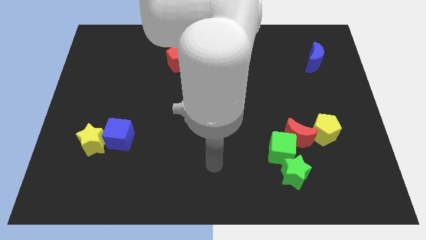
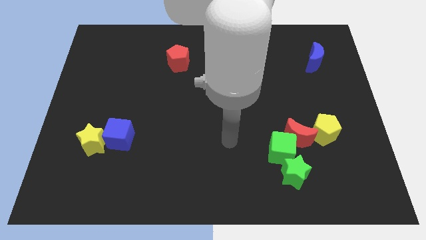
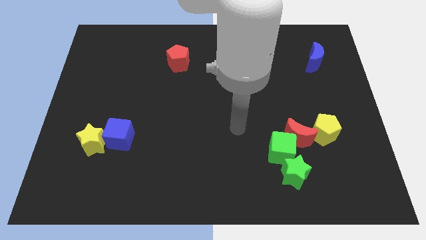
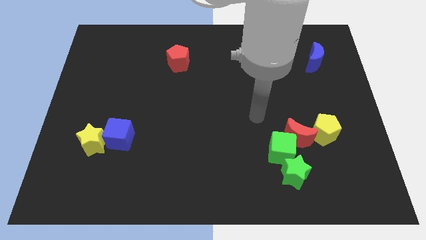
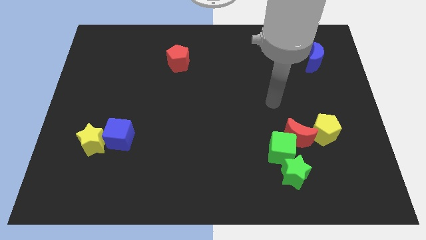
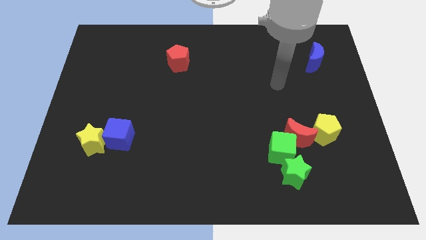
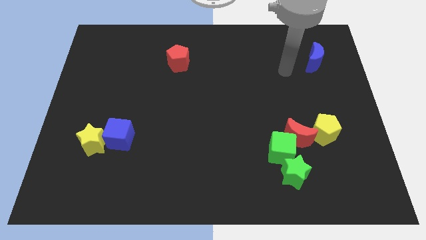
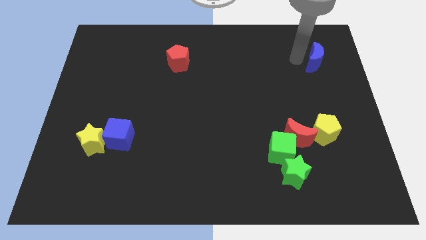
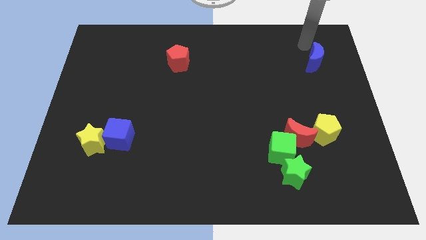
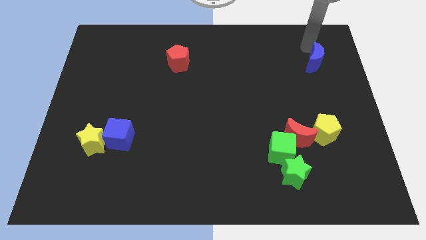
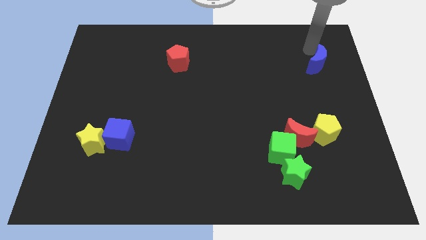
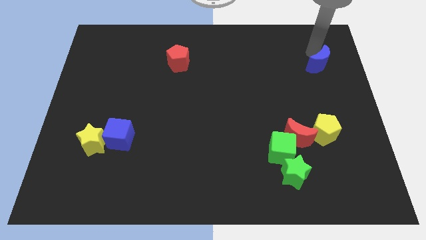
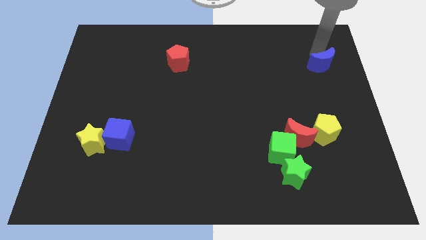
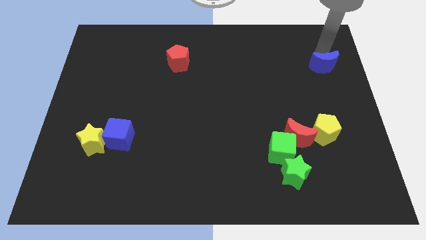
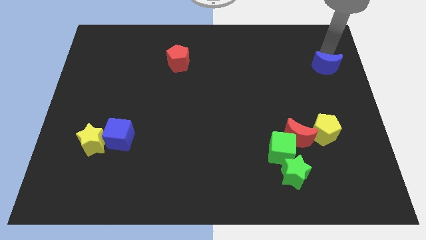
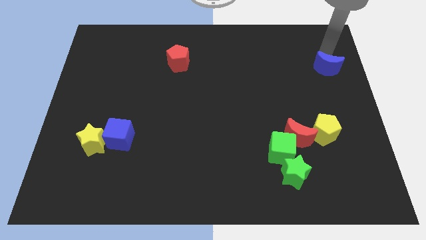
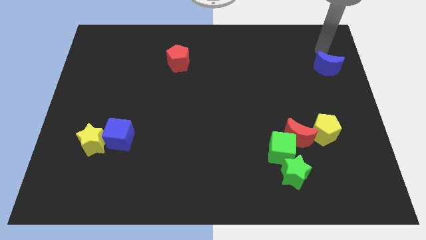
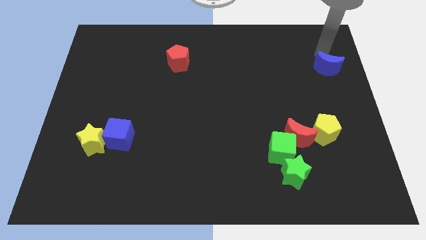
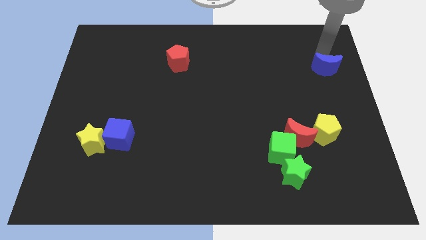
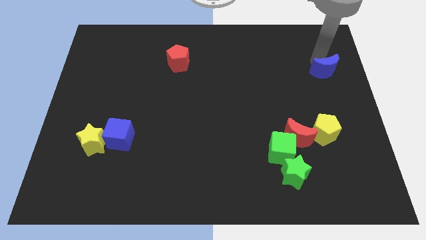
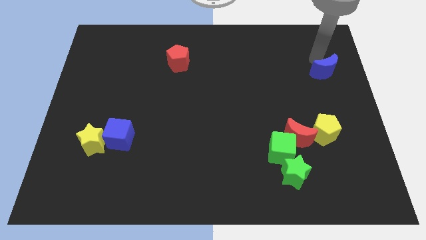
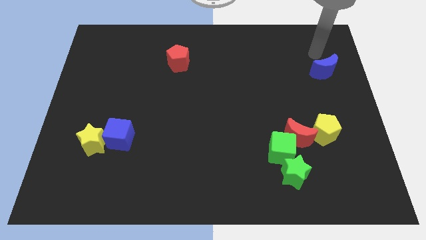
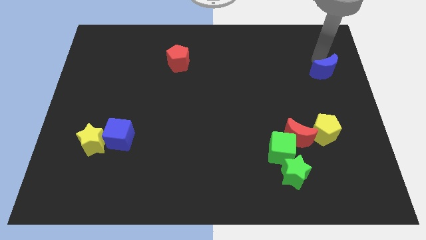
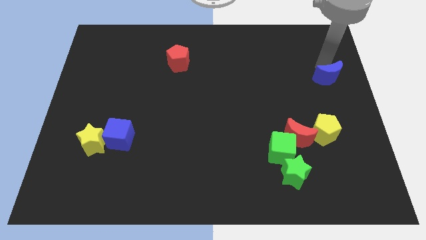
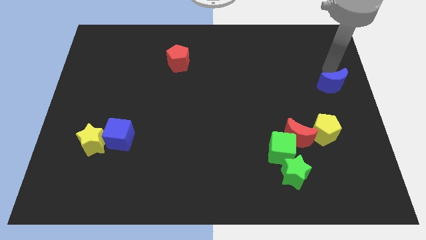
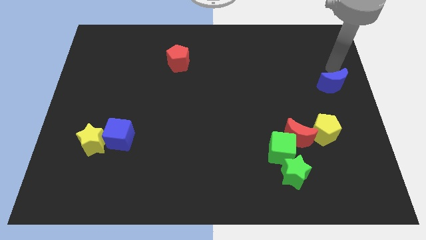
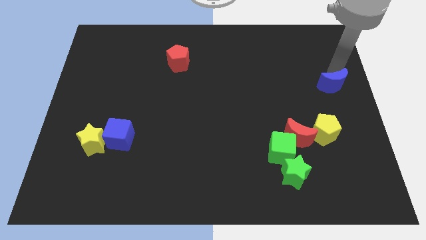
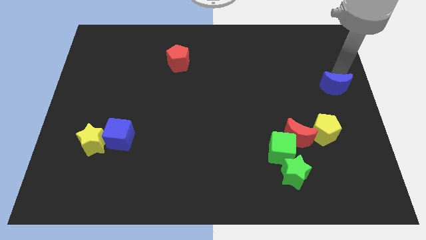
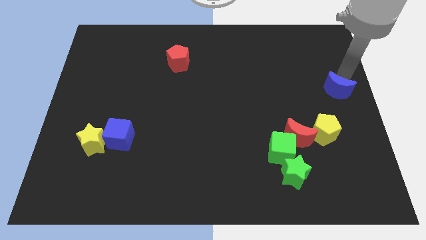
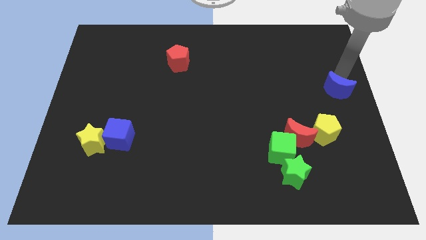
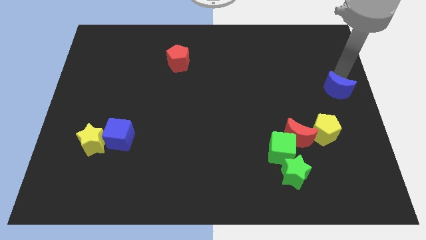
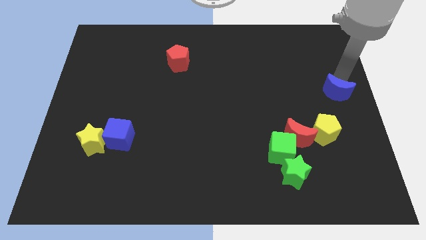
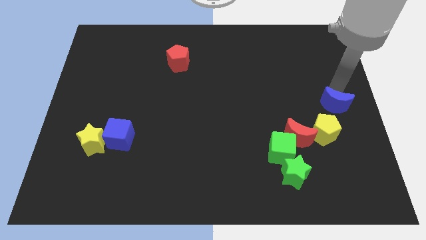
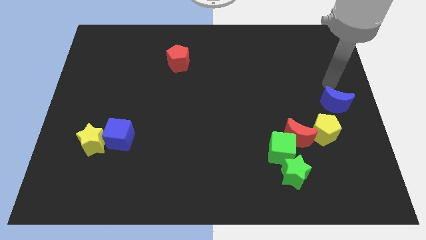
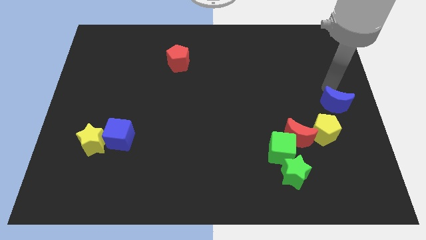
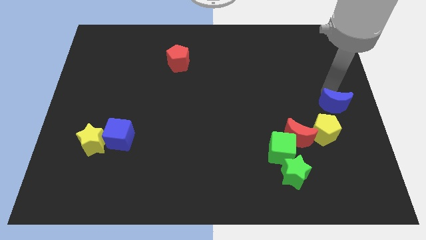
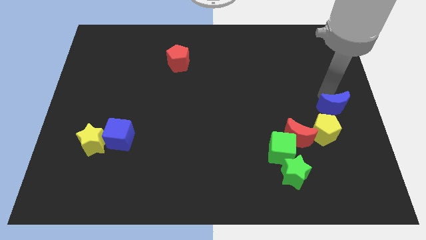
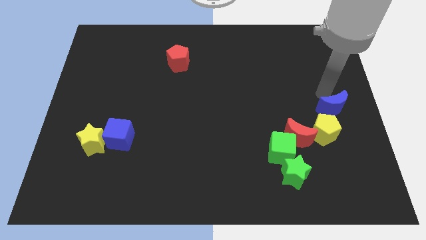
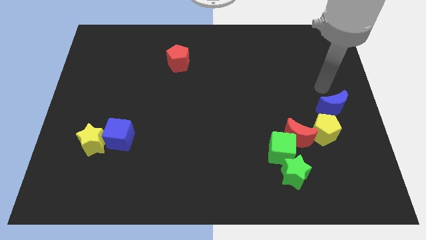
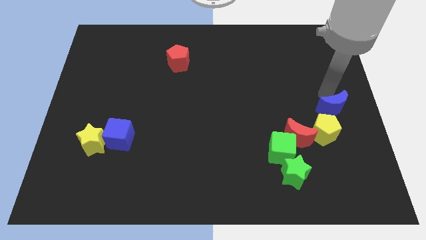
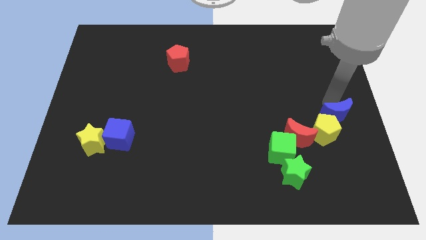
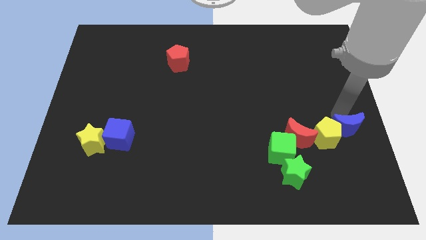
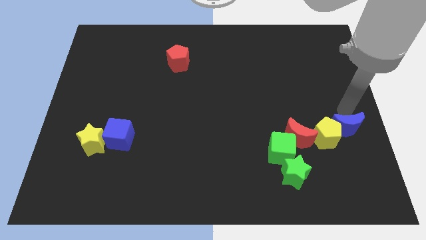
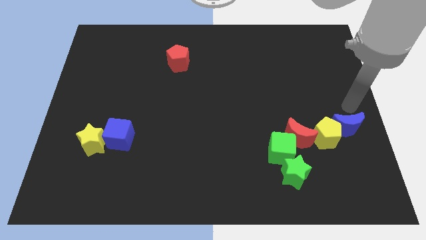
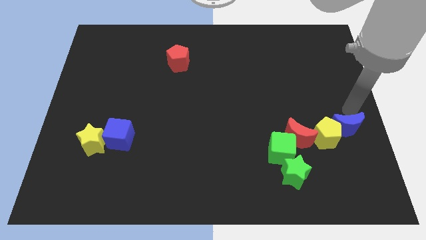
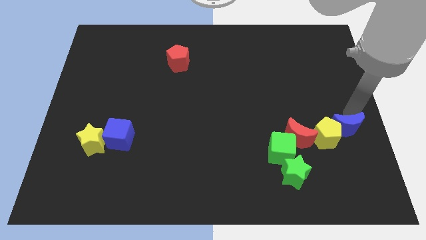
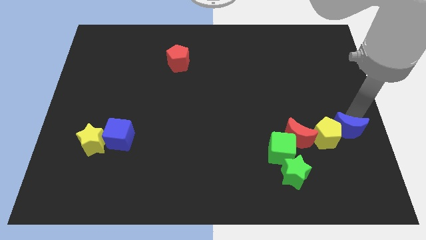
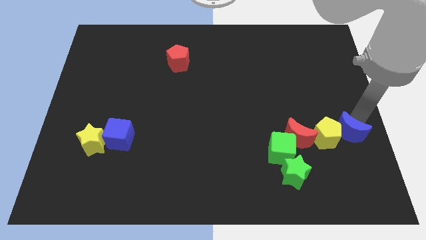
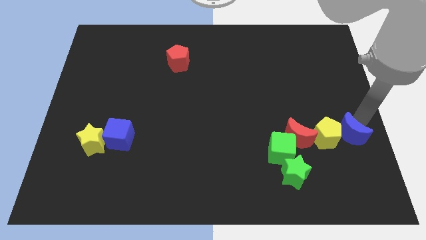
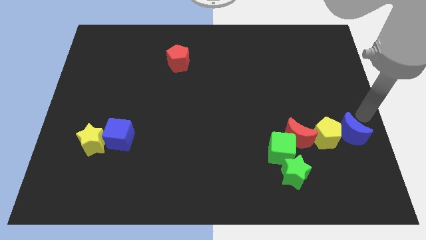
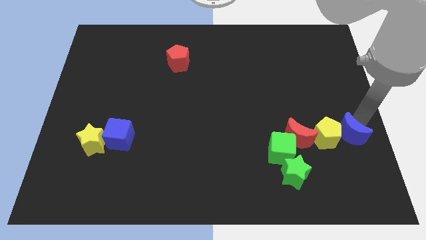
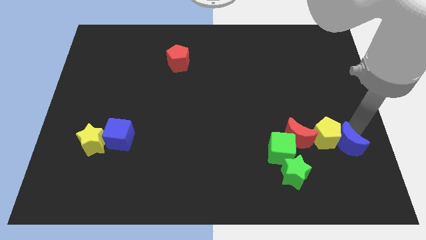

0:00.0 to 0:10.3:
slide the blue moon just right of the green cube

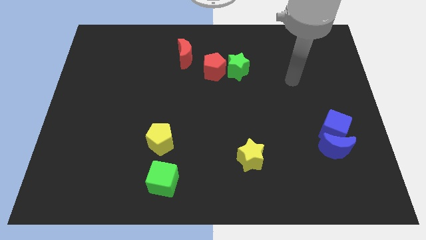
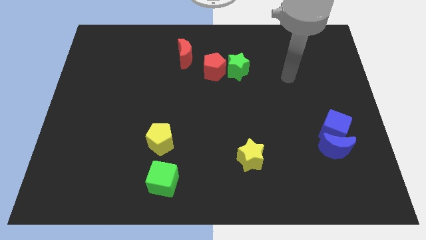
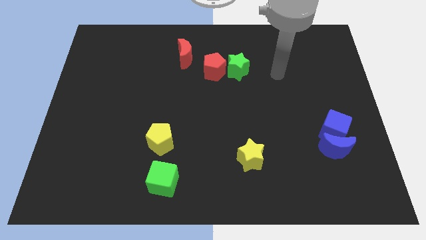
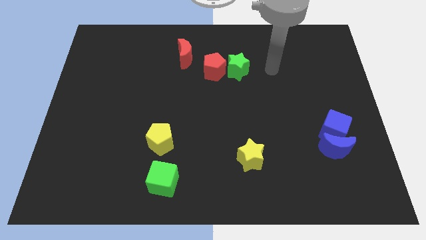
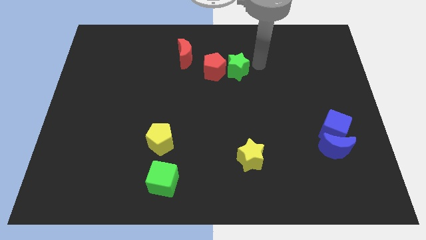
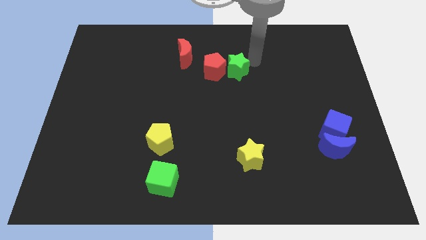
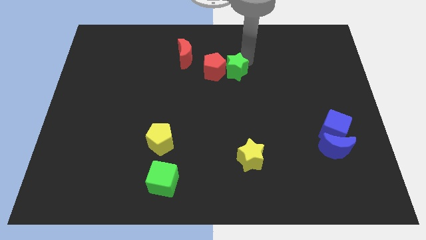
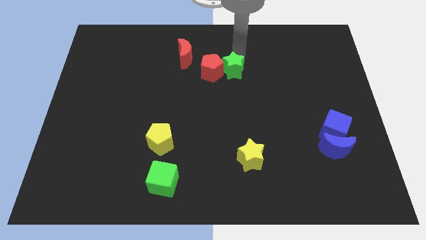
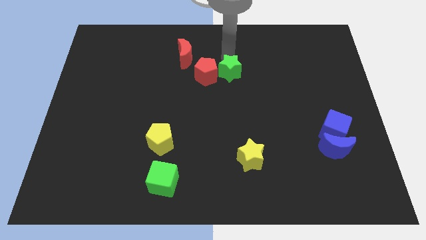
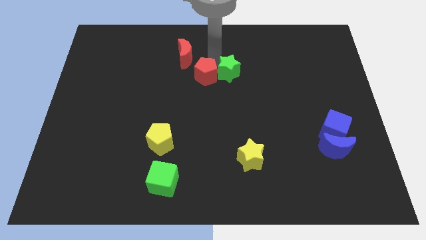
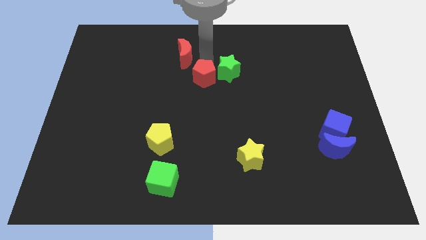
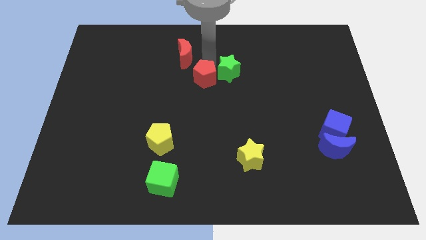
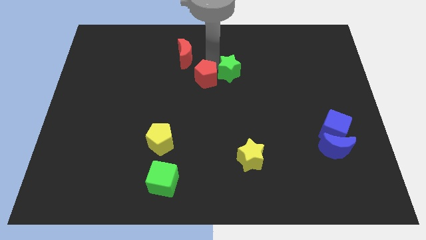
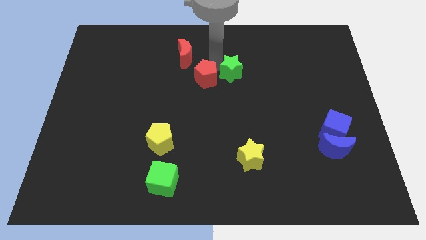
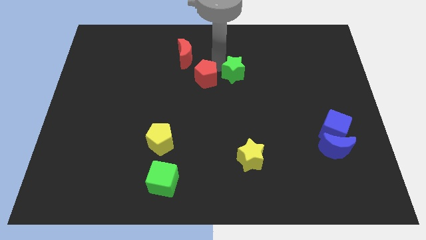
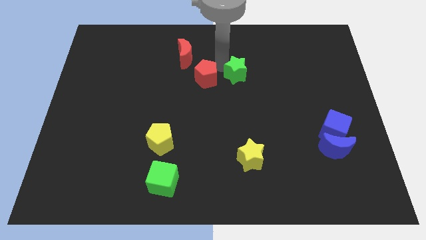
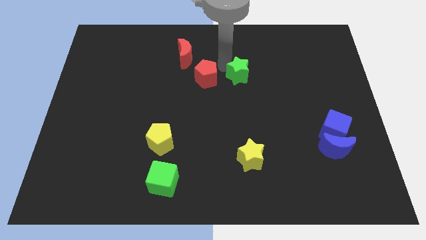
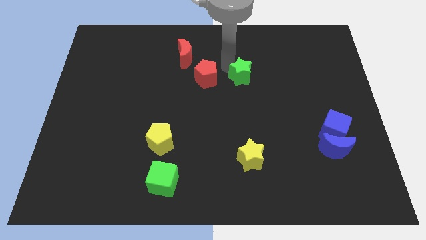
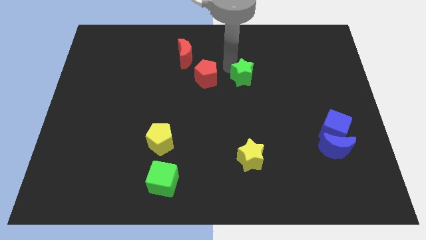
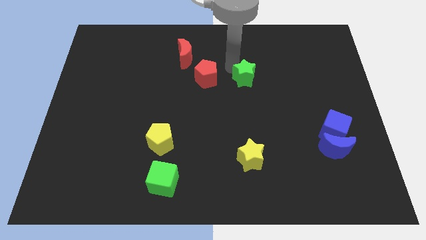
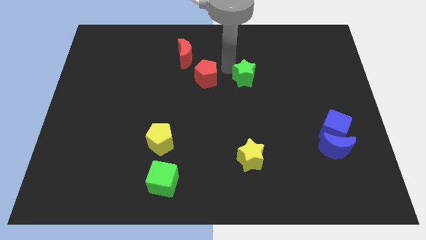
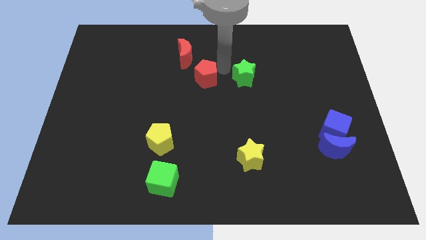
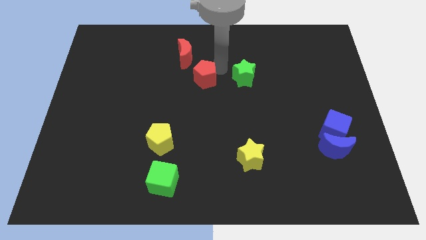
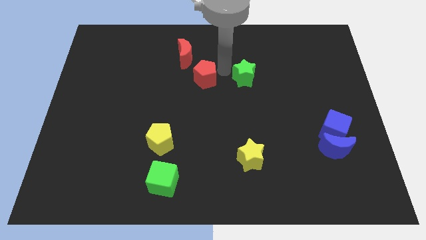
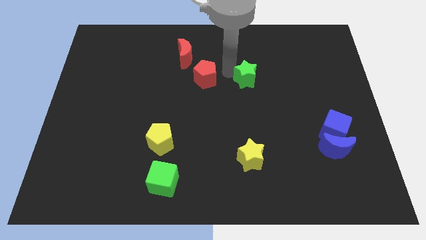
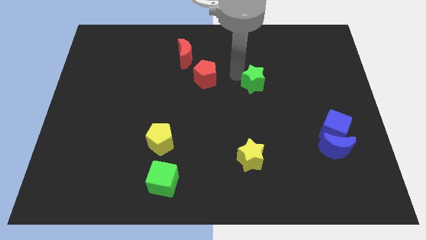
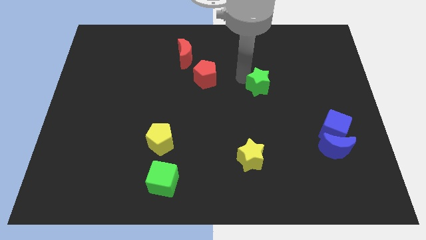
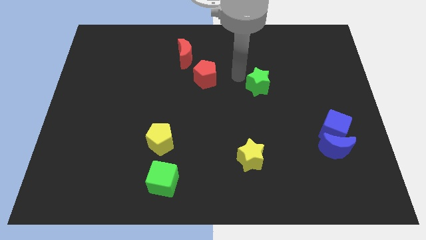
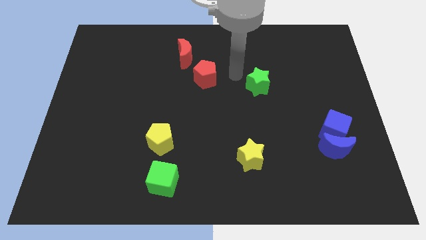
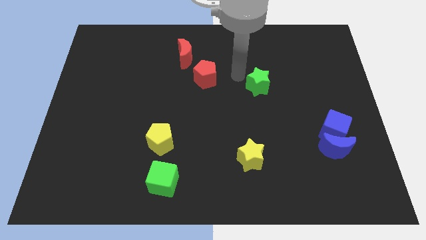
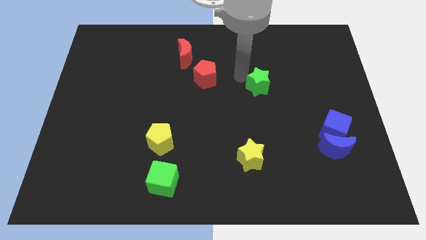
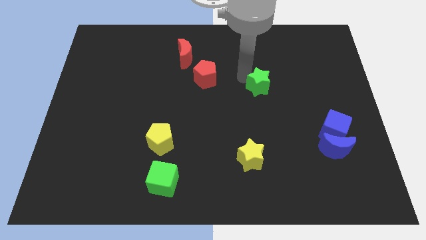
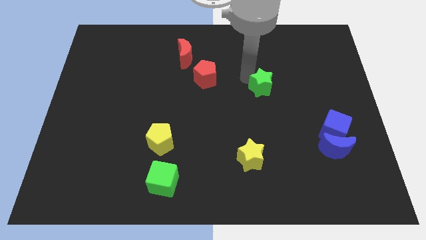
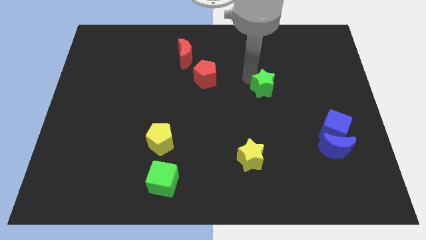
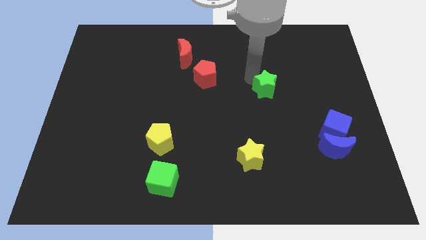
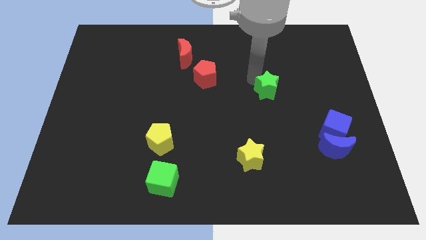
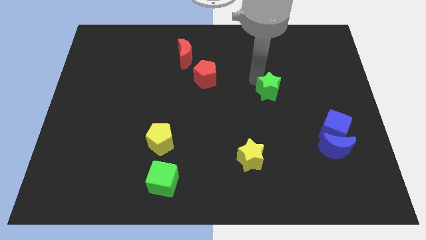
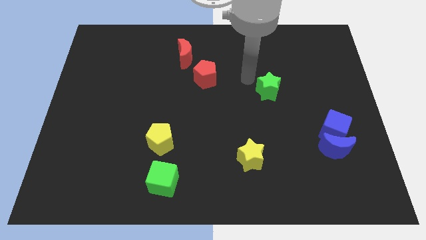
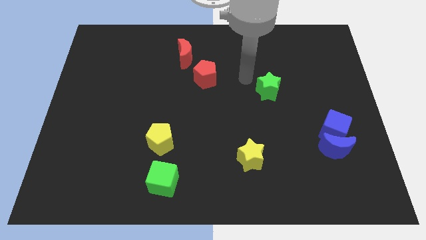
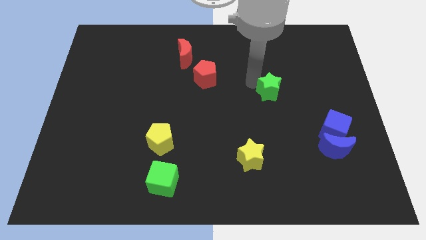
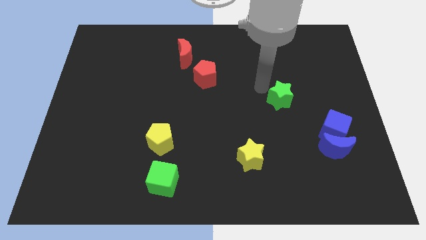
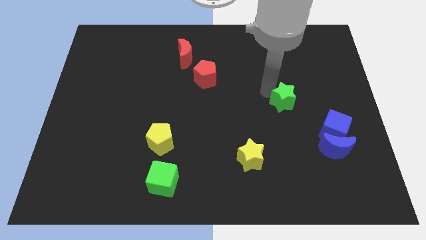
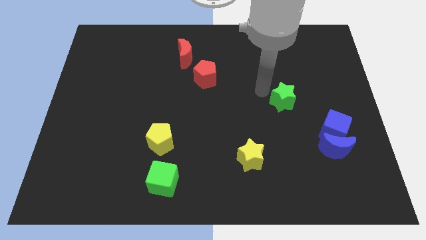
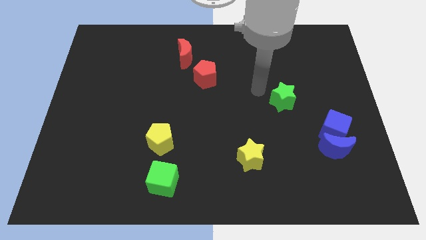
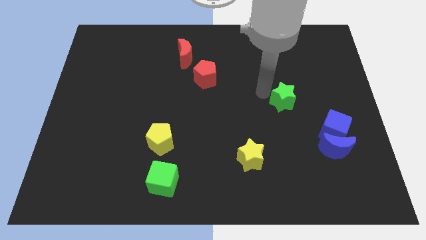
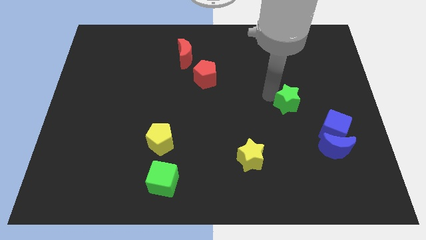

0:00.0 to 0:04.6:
push the green star to the top left side of the blue cube
